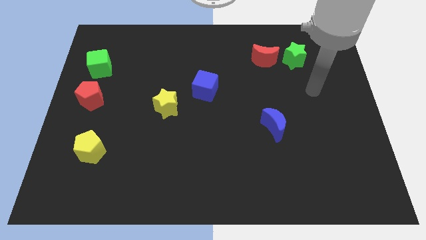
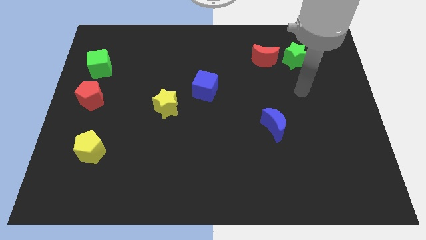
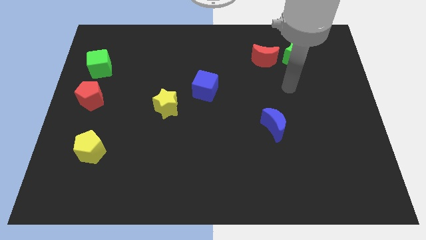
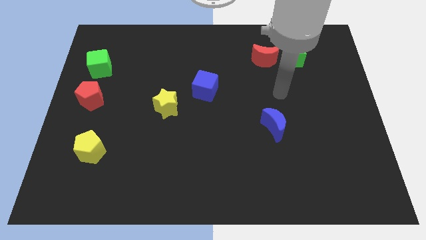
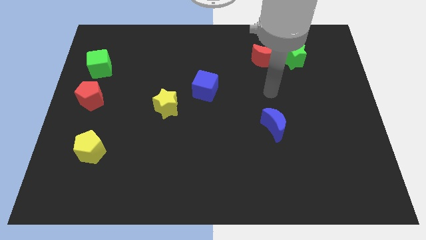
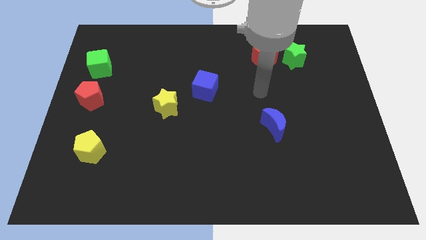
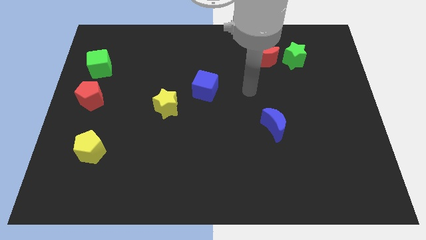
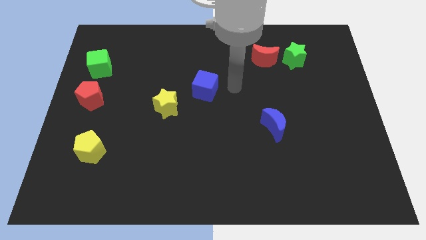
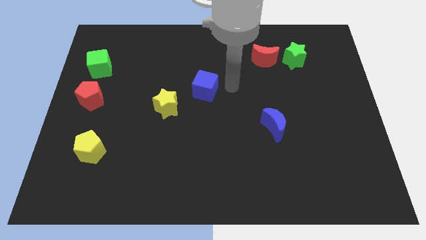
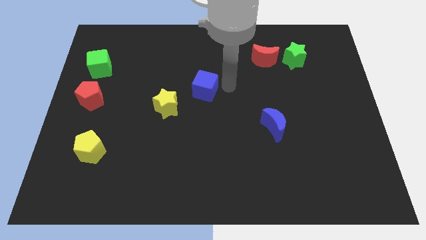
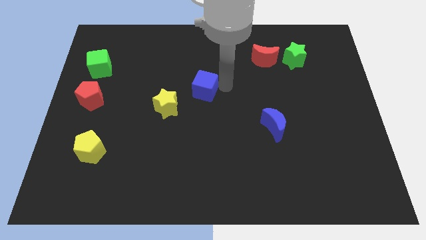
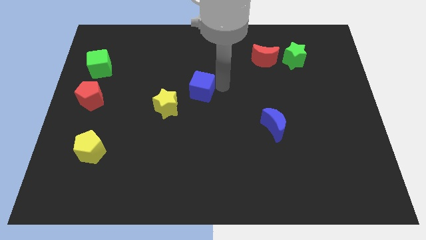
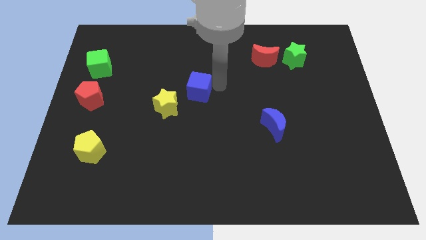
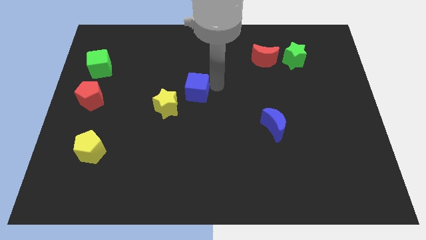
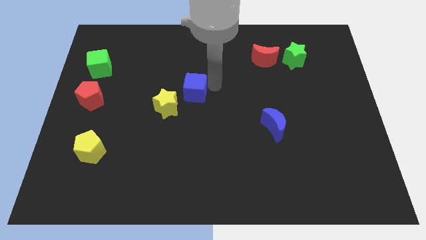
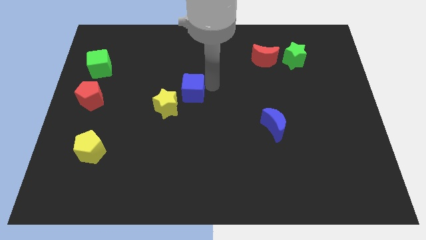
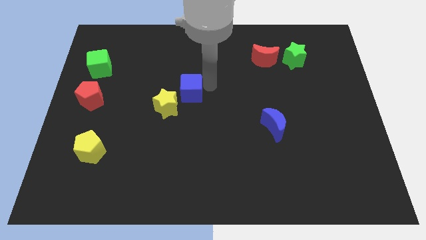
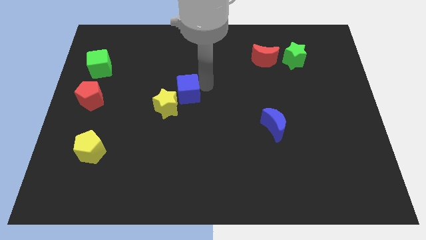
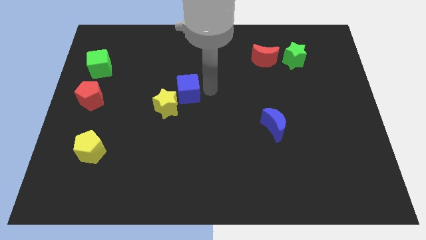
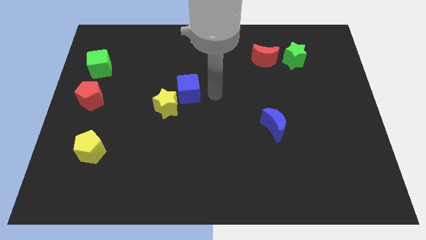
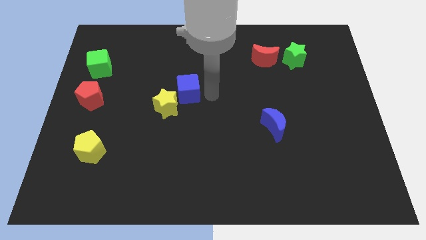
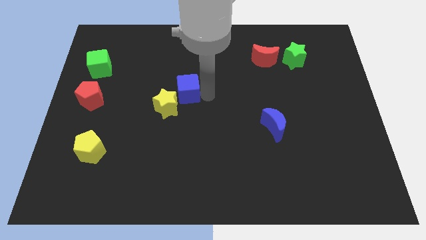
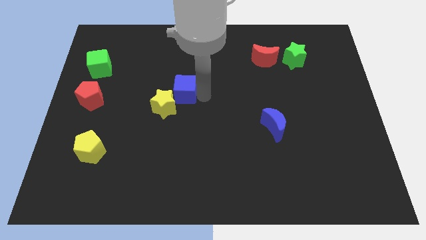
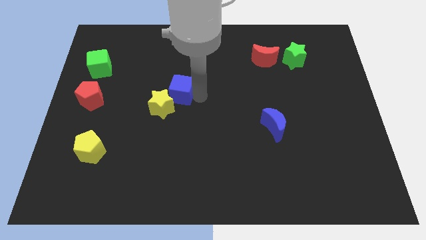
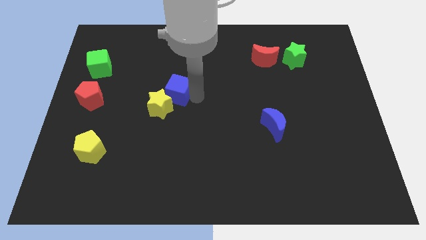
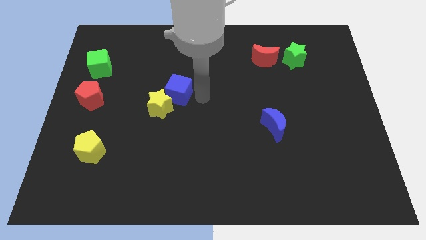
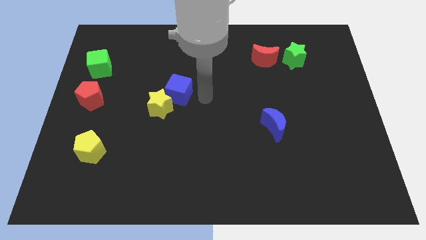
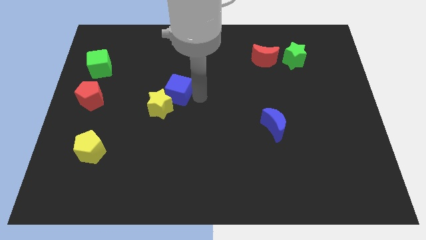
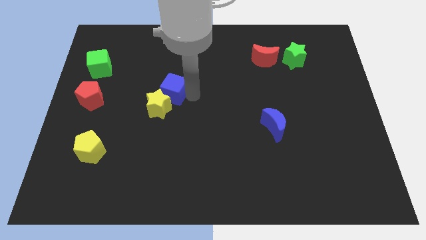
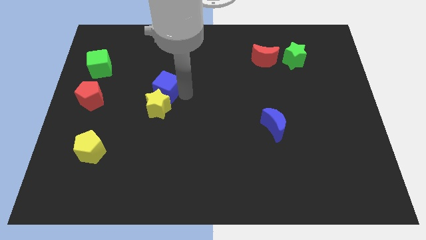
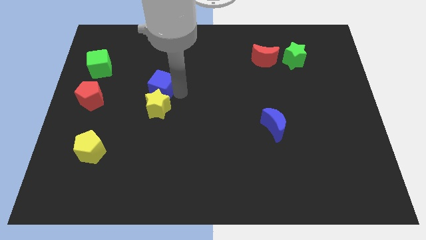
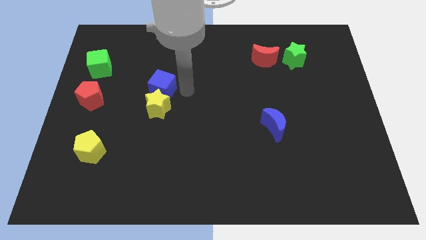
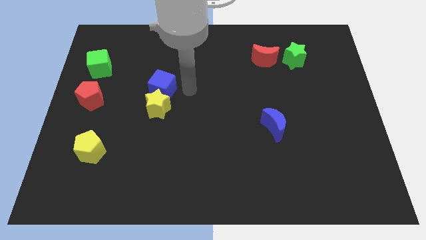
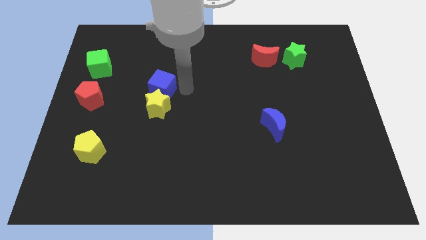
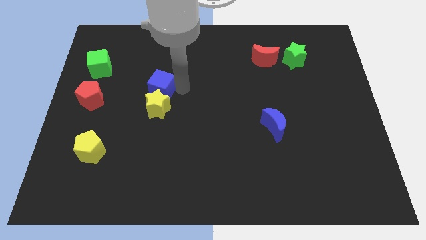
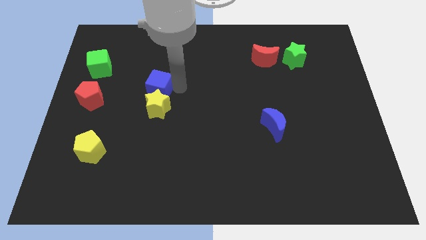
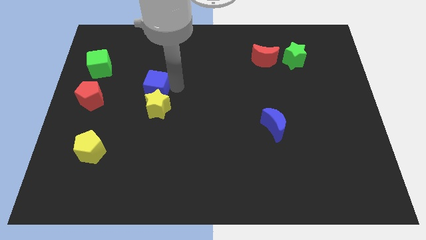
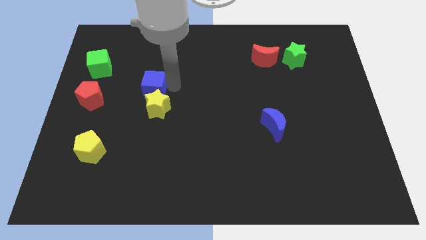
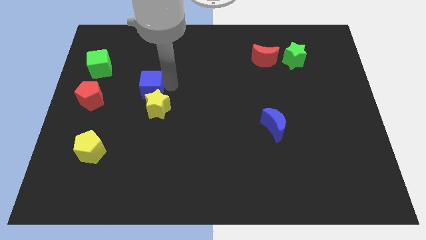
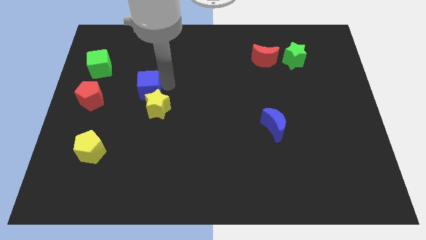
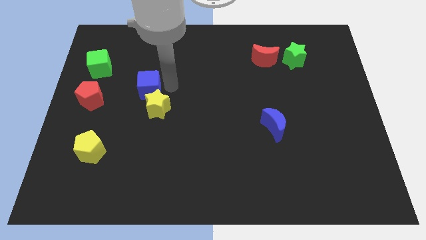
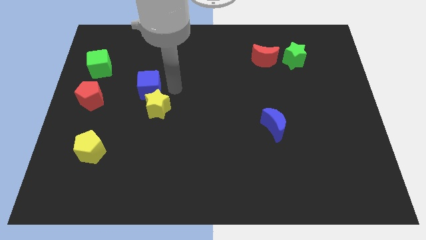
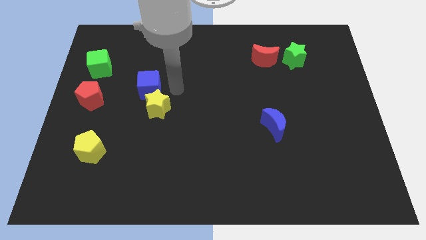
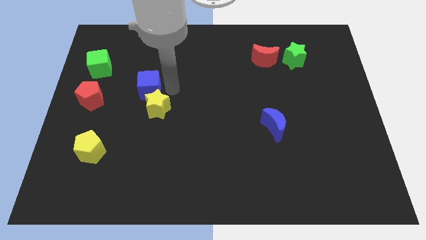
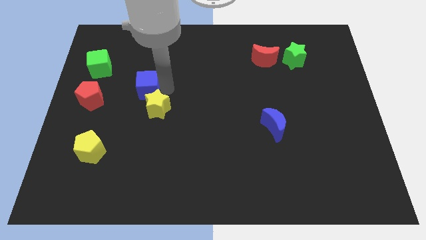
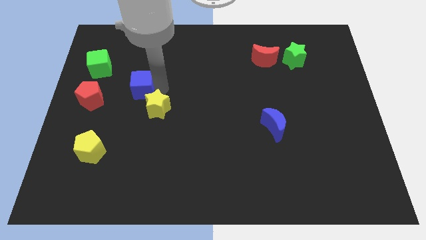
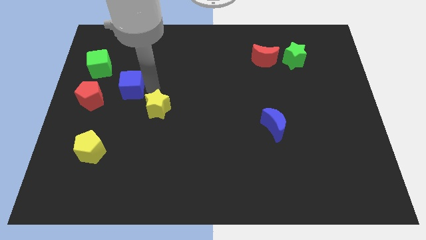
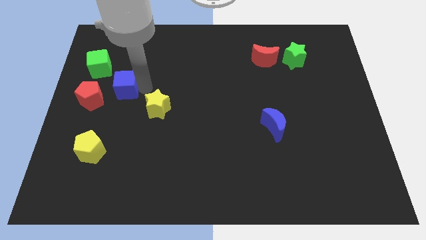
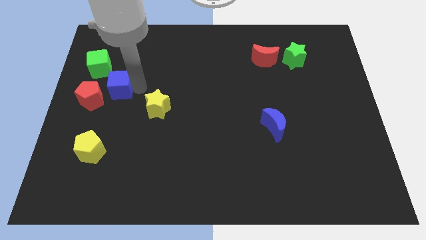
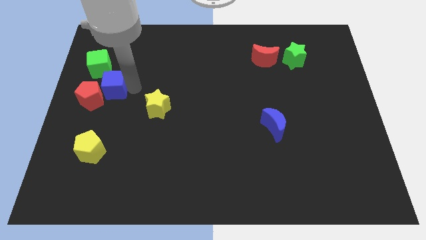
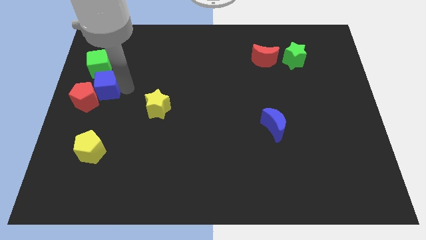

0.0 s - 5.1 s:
put the blue cube to the left side of the board

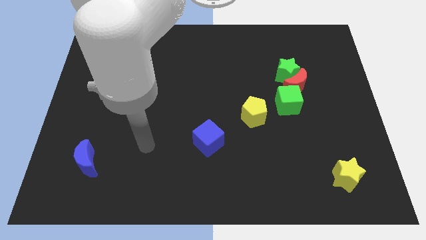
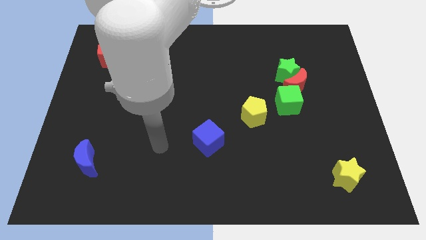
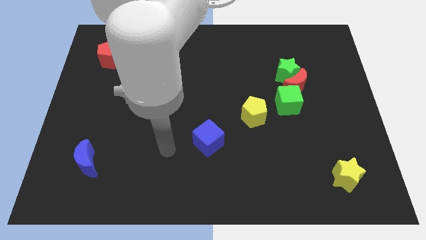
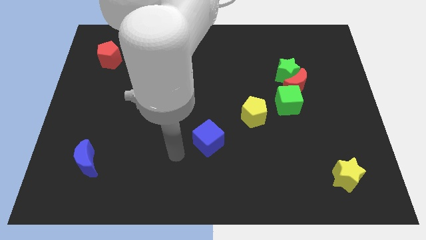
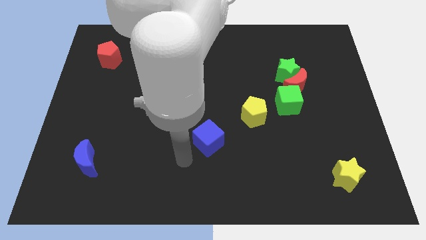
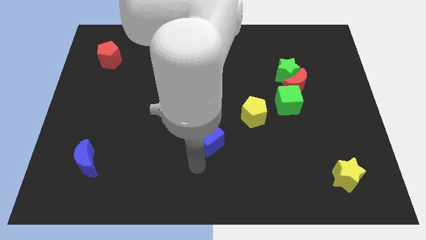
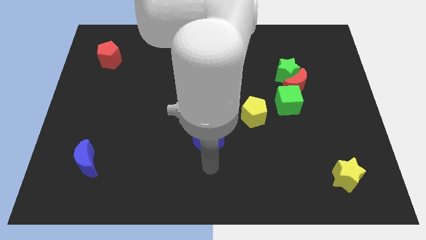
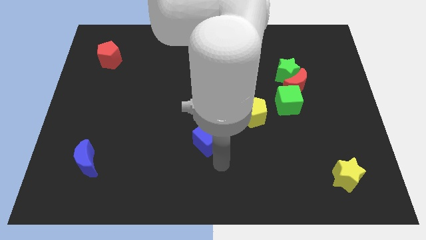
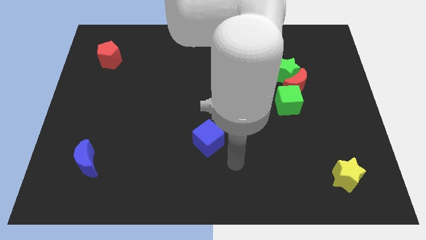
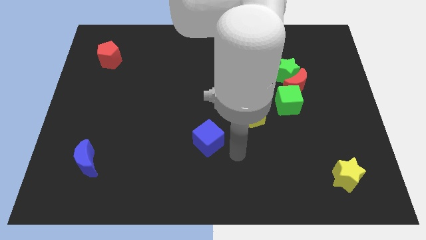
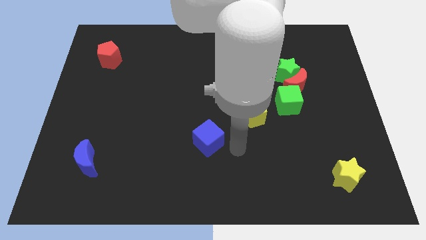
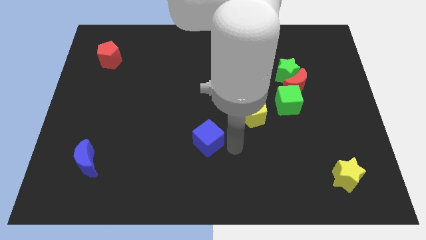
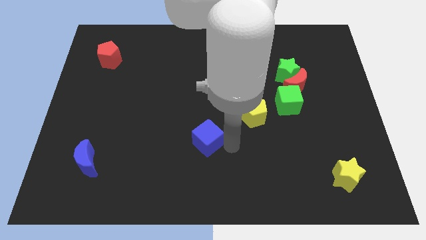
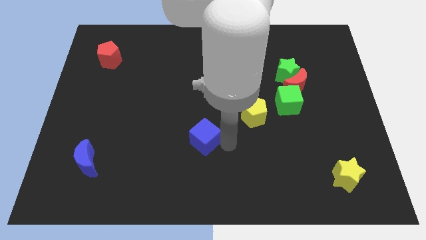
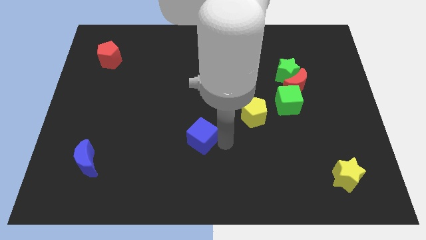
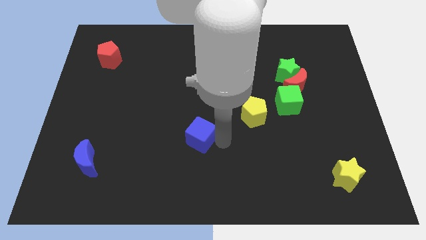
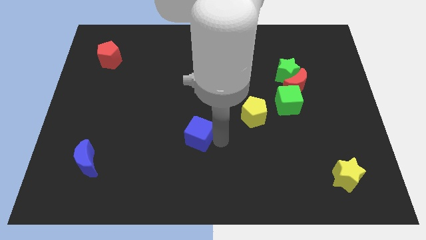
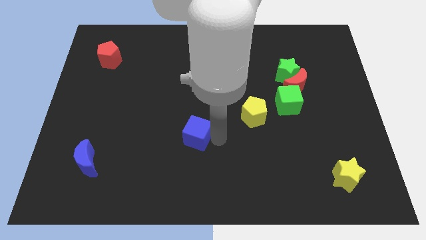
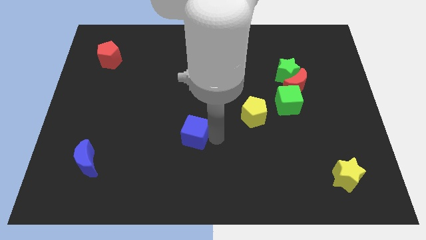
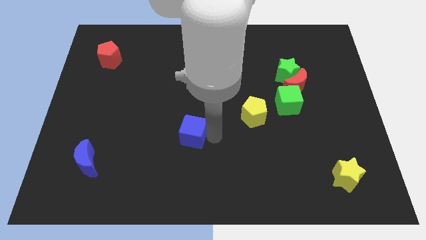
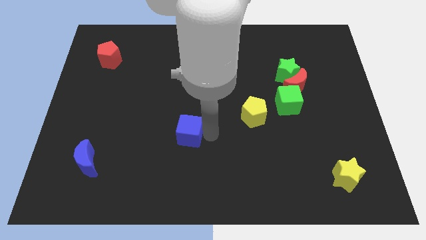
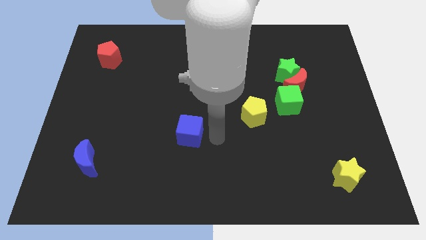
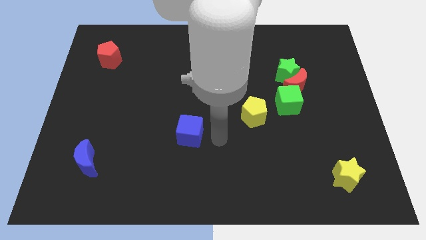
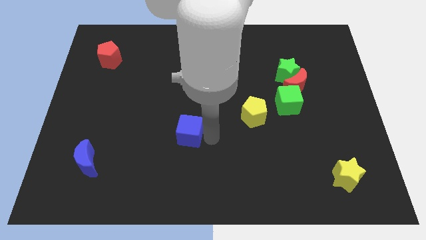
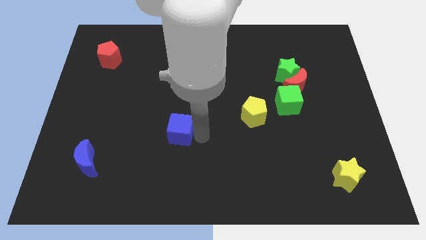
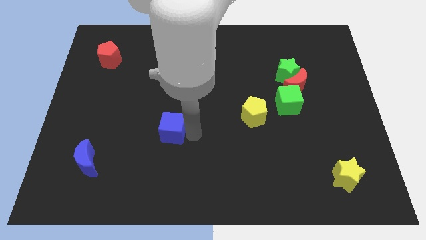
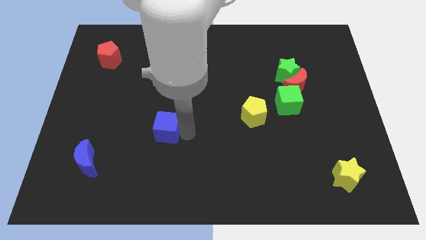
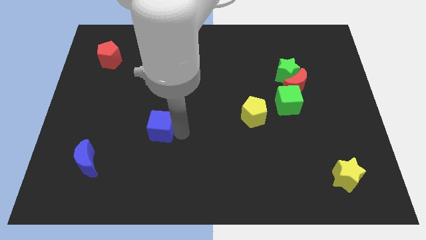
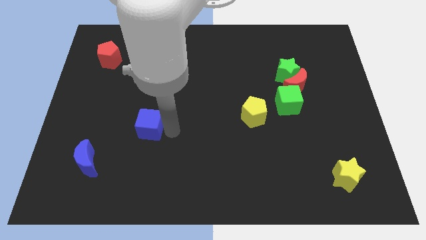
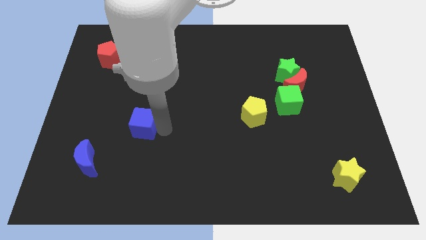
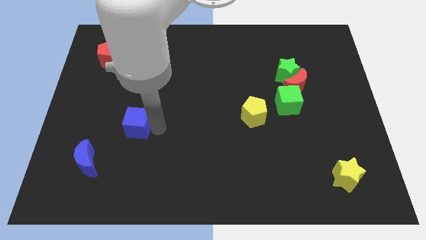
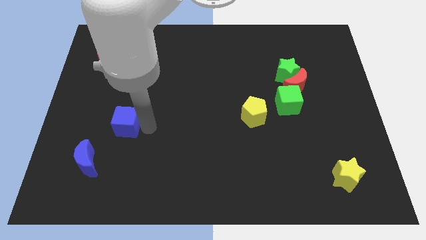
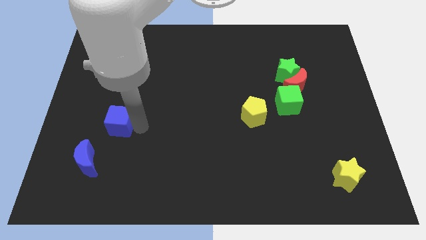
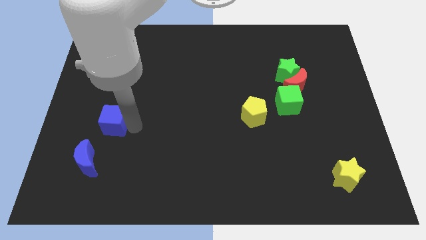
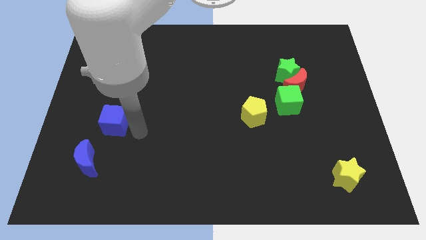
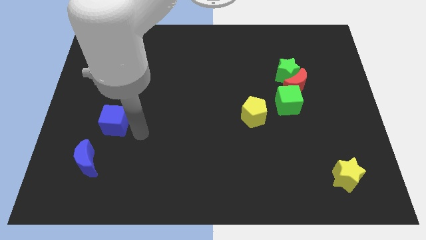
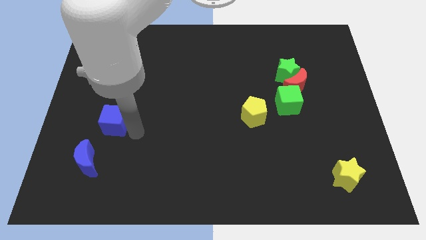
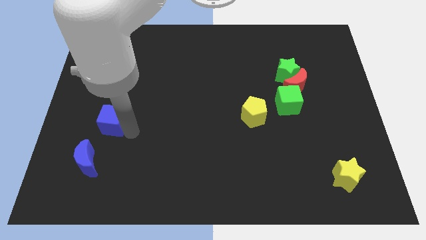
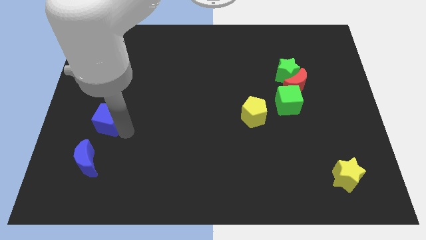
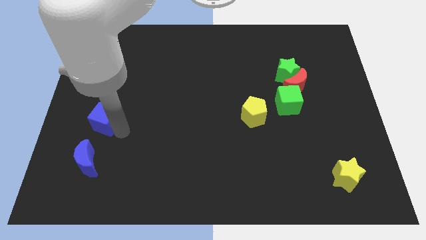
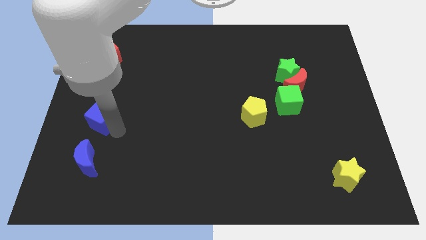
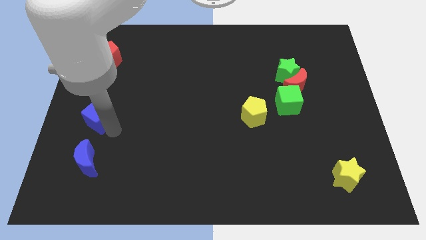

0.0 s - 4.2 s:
slide the blue cube to the left side of the board
